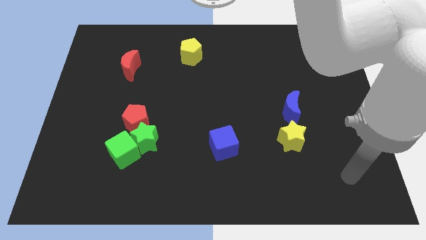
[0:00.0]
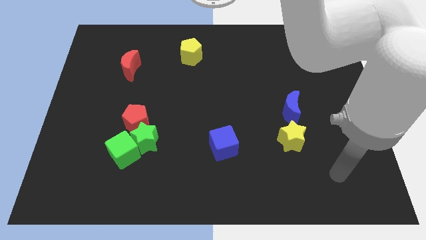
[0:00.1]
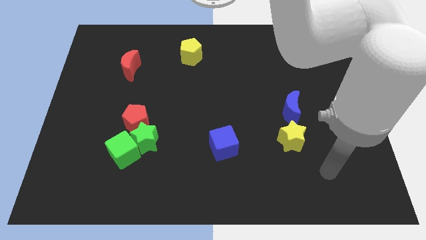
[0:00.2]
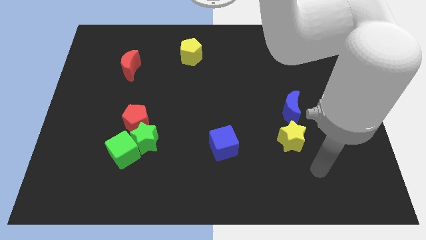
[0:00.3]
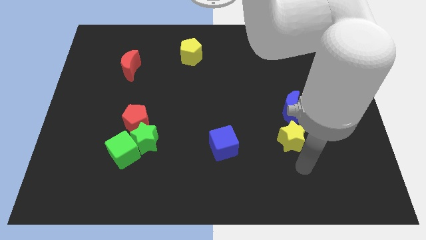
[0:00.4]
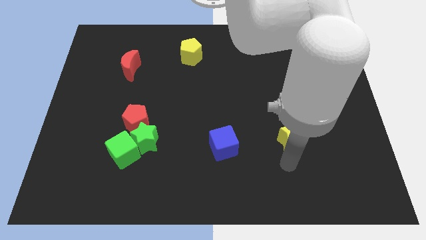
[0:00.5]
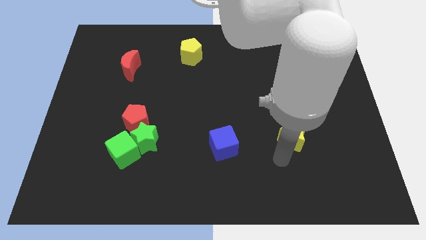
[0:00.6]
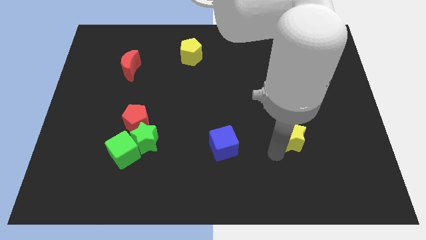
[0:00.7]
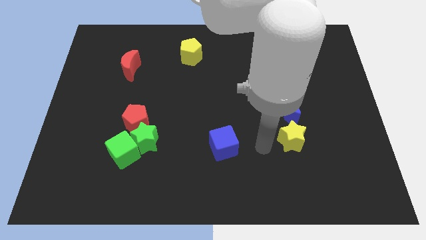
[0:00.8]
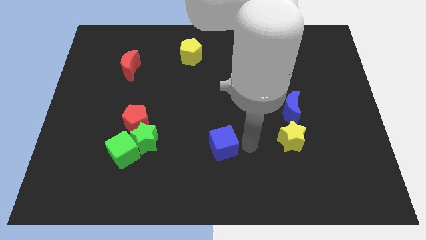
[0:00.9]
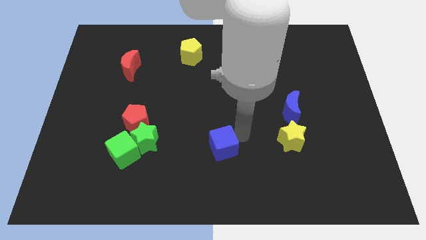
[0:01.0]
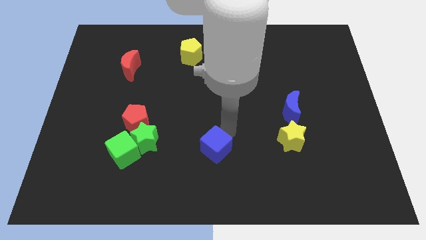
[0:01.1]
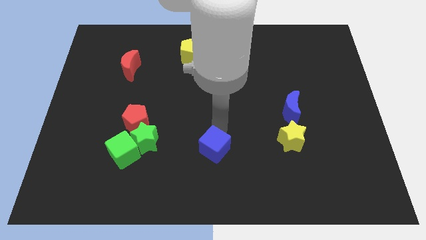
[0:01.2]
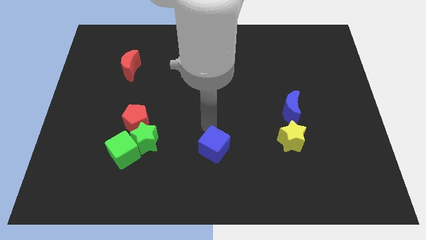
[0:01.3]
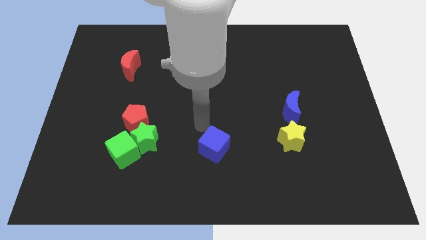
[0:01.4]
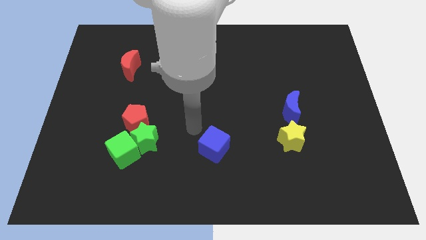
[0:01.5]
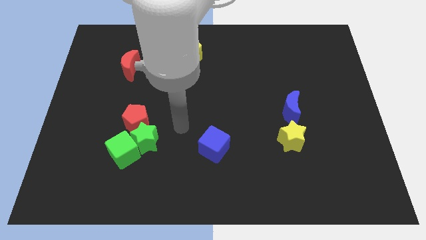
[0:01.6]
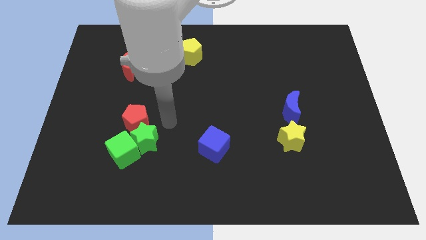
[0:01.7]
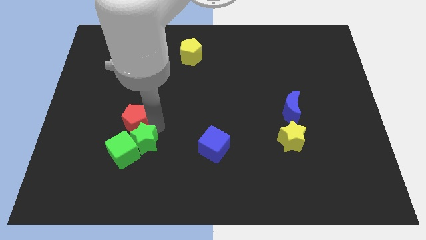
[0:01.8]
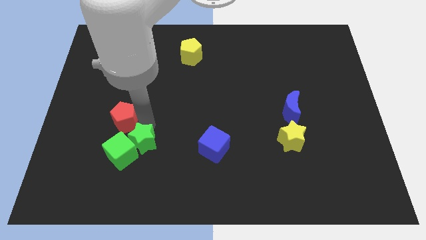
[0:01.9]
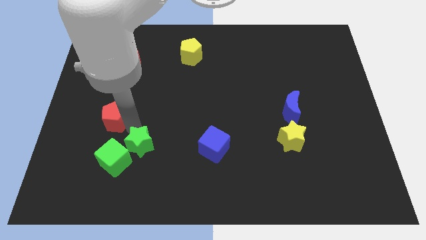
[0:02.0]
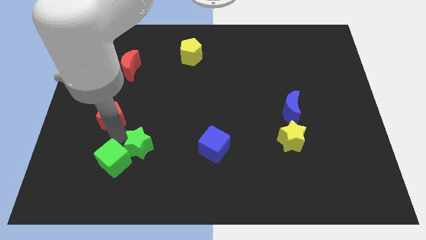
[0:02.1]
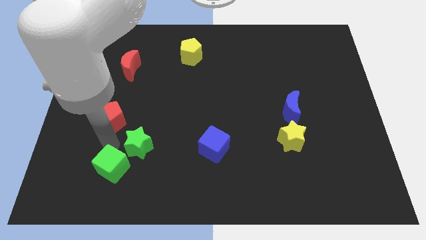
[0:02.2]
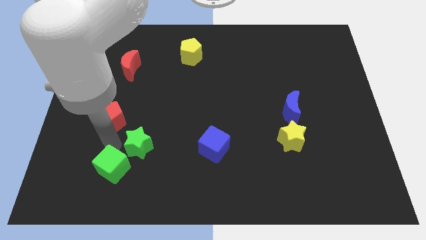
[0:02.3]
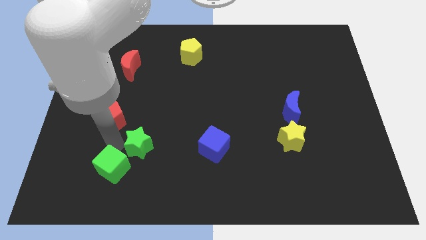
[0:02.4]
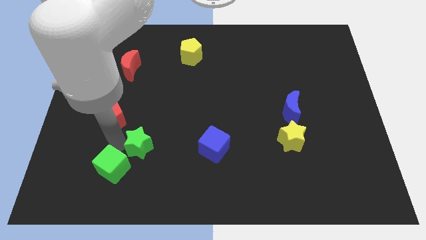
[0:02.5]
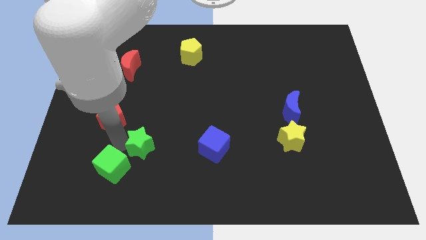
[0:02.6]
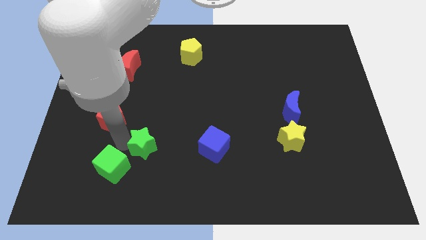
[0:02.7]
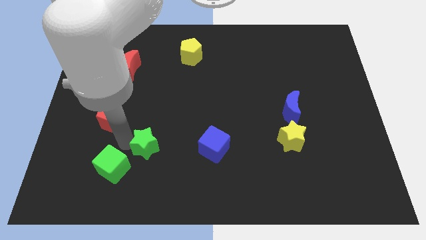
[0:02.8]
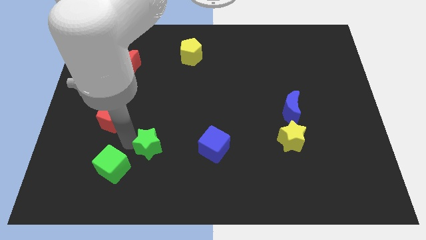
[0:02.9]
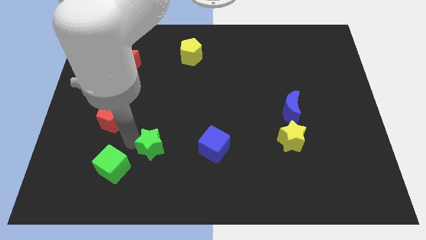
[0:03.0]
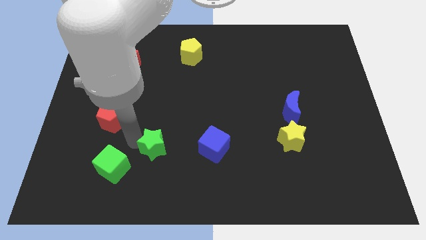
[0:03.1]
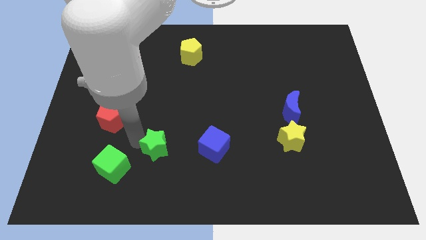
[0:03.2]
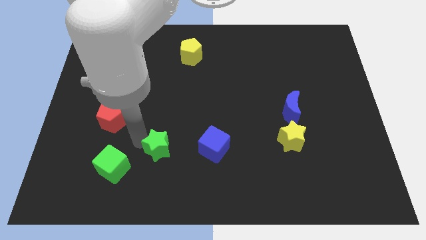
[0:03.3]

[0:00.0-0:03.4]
separate the green star from the green cube and red pentagon
